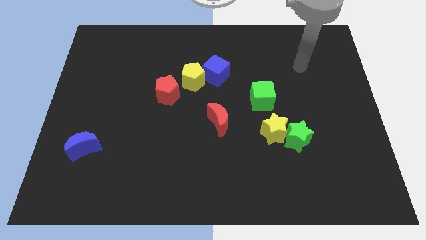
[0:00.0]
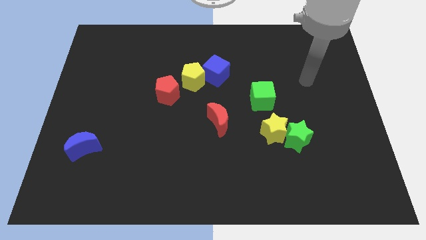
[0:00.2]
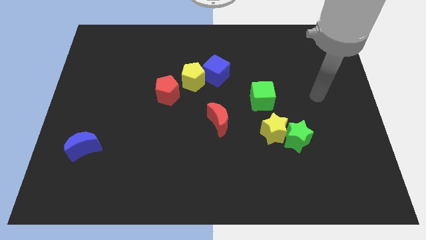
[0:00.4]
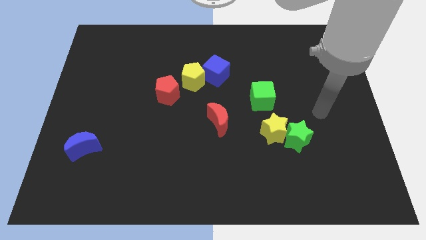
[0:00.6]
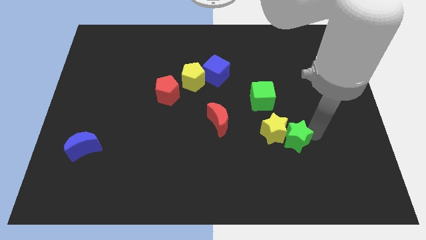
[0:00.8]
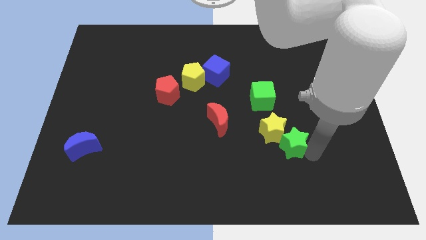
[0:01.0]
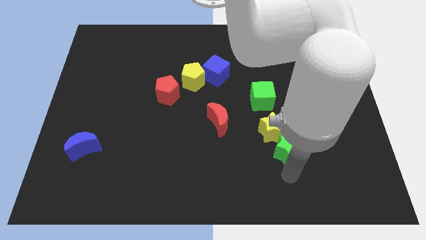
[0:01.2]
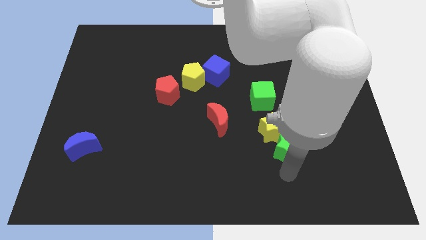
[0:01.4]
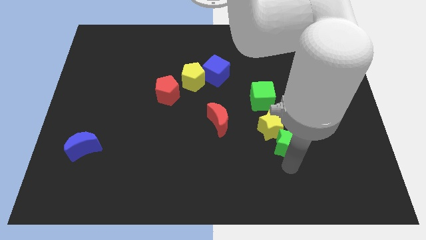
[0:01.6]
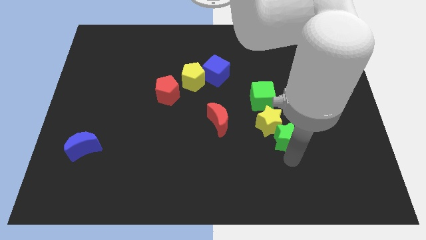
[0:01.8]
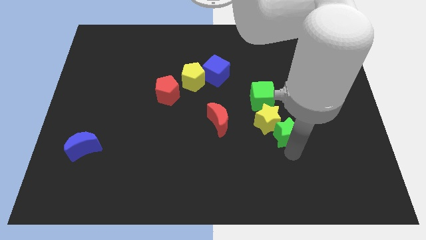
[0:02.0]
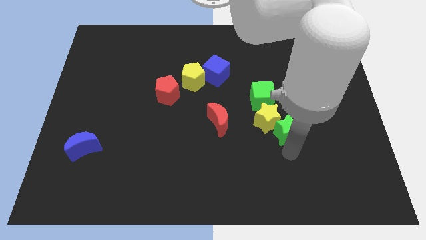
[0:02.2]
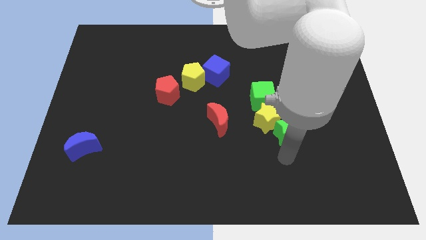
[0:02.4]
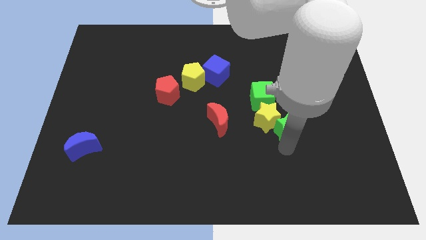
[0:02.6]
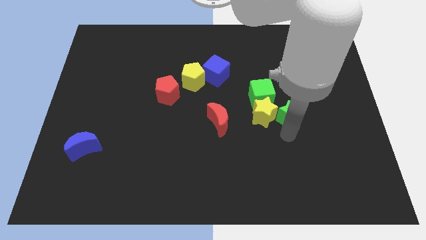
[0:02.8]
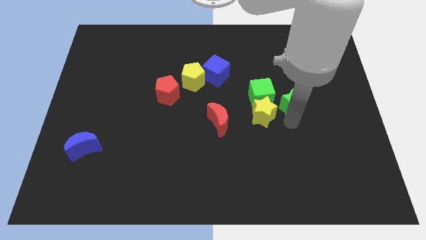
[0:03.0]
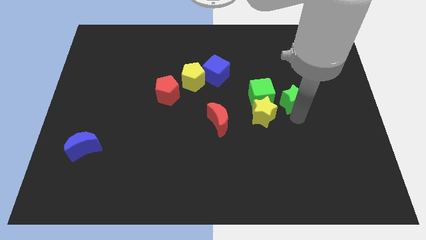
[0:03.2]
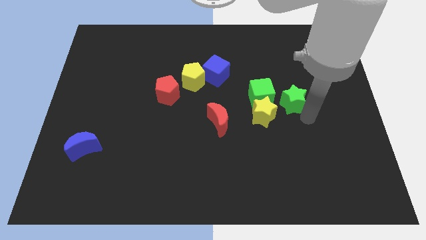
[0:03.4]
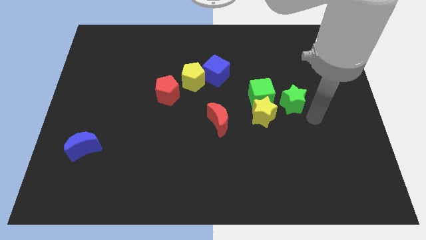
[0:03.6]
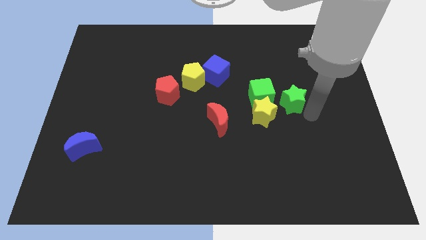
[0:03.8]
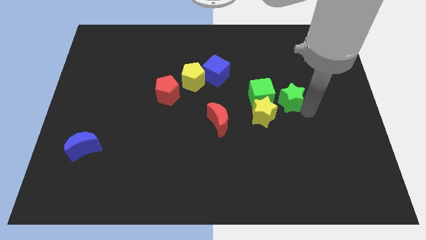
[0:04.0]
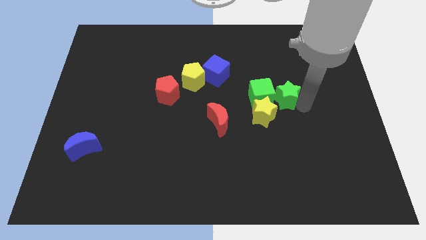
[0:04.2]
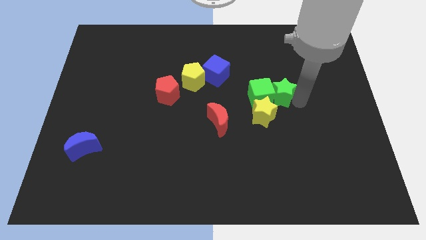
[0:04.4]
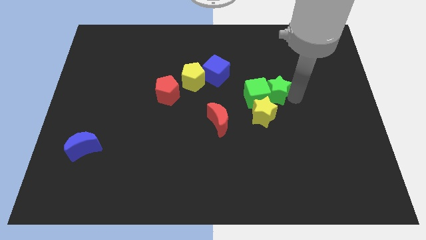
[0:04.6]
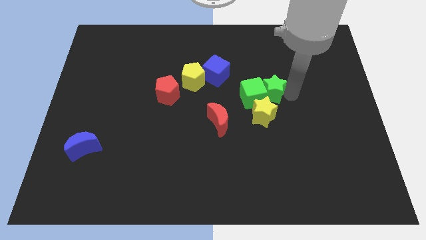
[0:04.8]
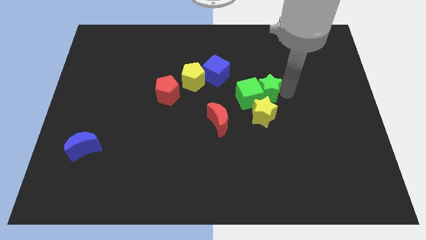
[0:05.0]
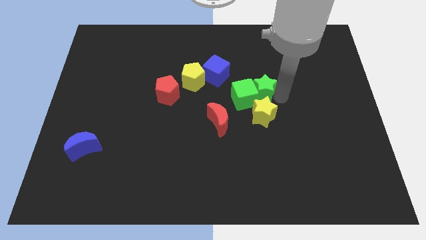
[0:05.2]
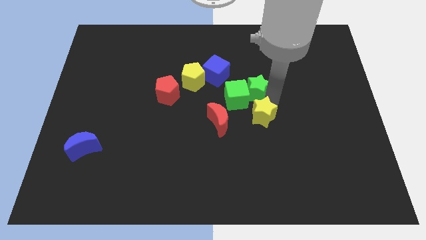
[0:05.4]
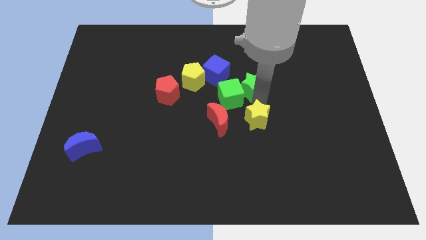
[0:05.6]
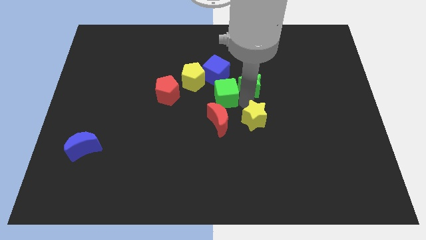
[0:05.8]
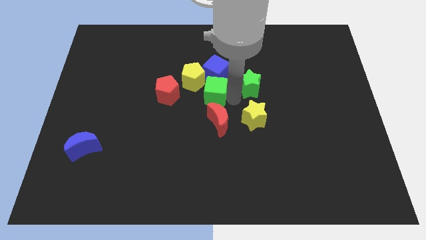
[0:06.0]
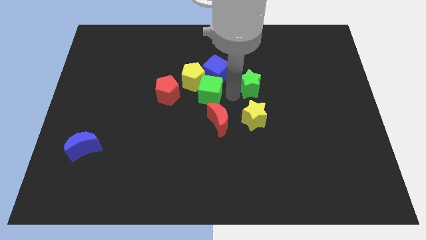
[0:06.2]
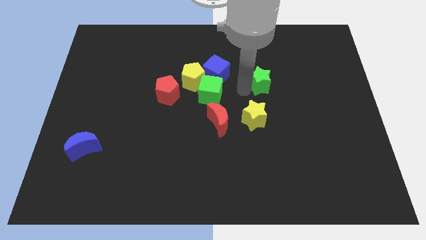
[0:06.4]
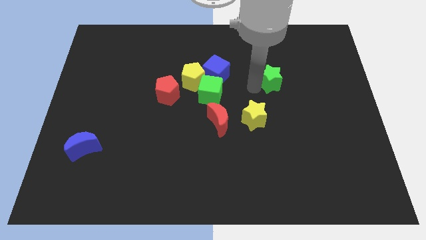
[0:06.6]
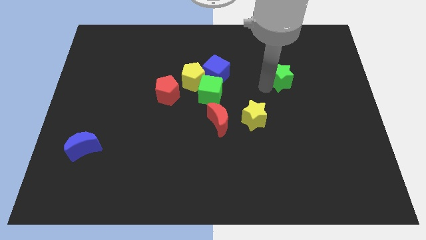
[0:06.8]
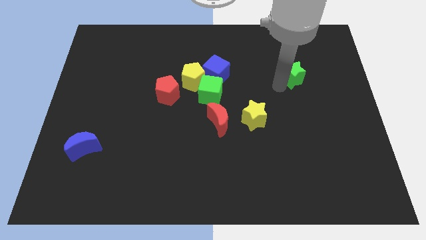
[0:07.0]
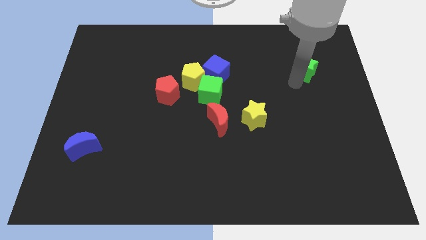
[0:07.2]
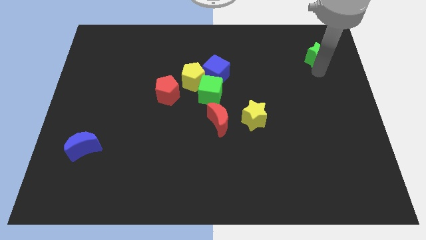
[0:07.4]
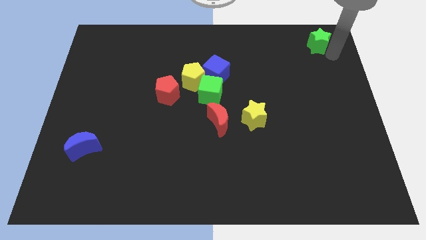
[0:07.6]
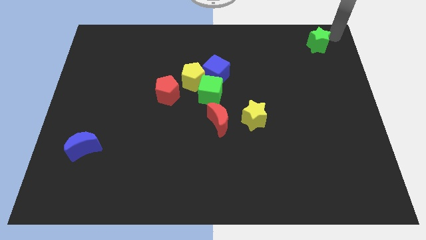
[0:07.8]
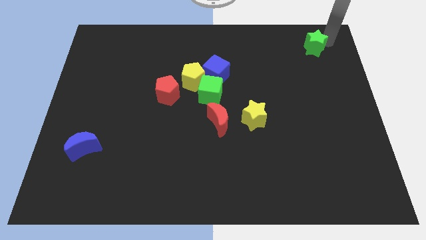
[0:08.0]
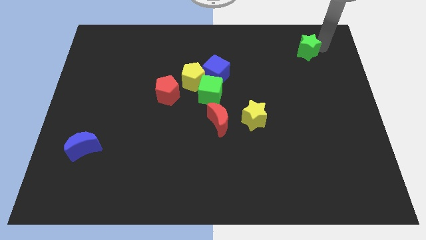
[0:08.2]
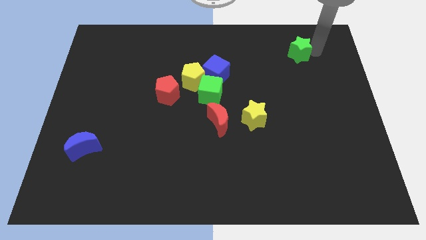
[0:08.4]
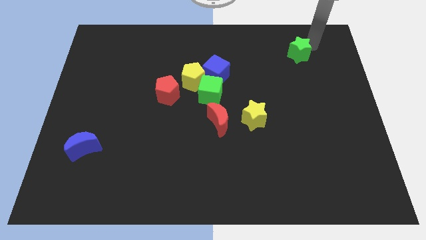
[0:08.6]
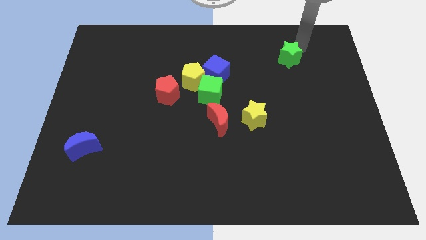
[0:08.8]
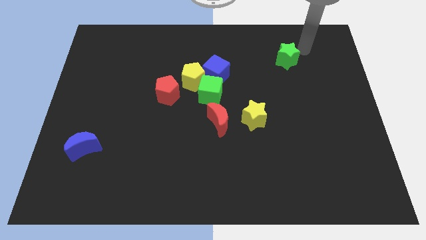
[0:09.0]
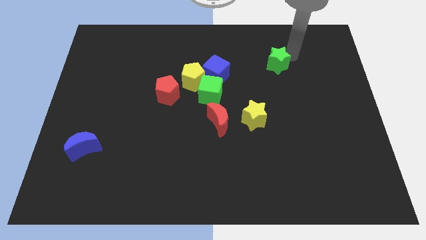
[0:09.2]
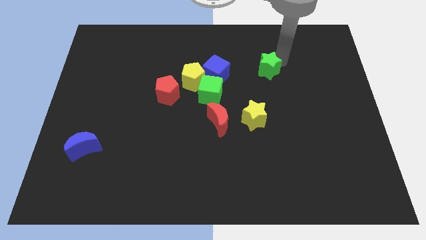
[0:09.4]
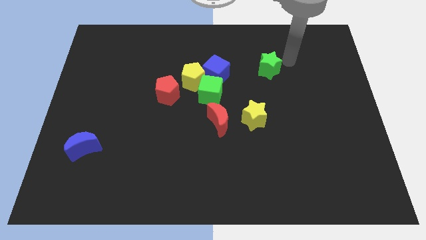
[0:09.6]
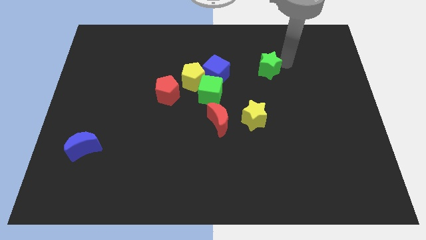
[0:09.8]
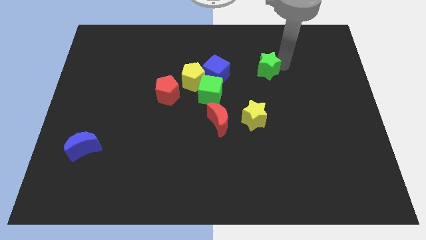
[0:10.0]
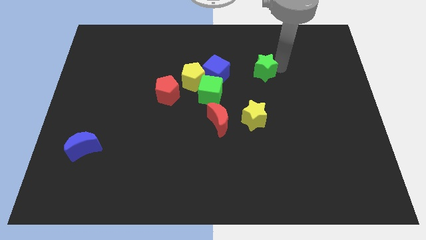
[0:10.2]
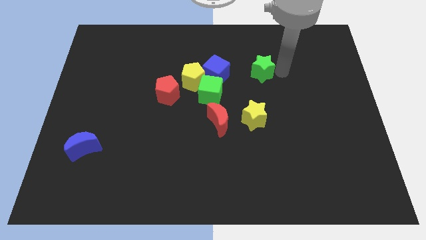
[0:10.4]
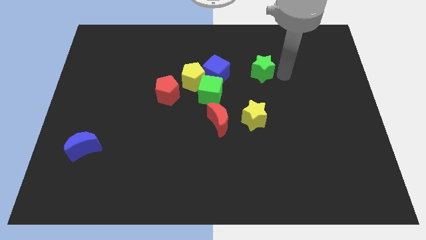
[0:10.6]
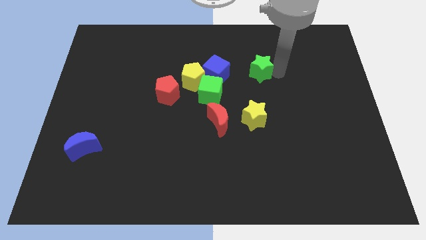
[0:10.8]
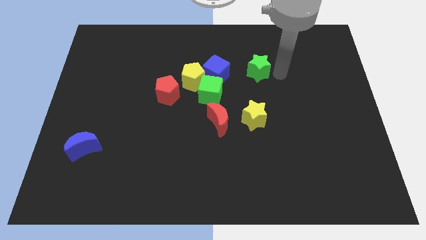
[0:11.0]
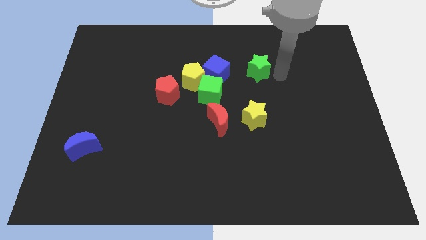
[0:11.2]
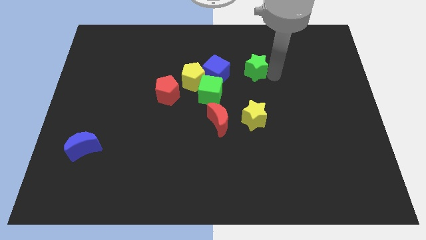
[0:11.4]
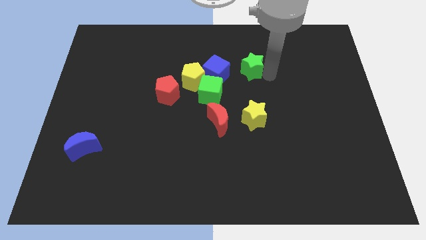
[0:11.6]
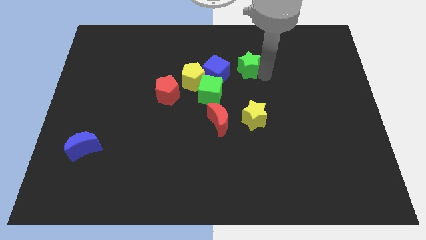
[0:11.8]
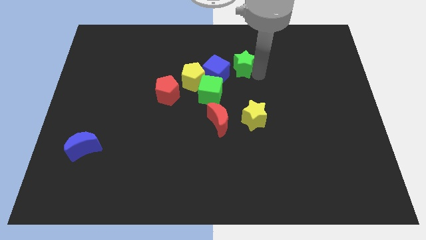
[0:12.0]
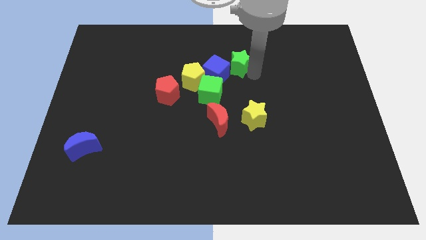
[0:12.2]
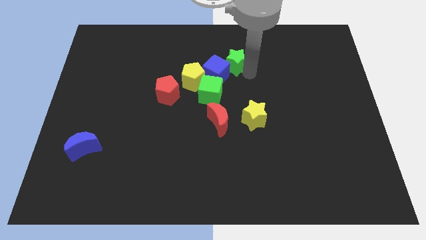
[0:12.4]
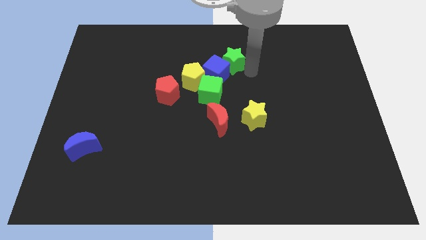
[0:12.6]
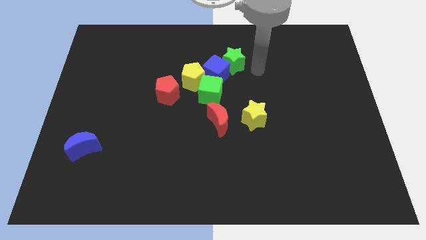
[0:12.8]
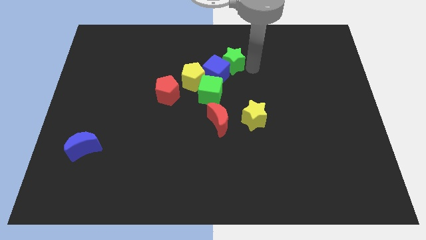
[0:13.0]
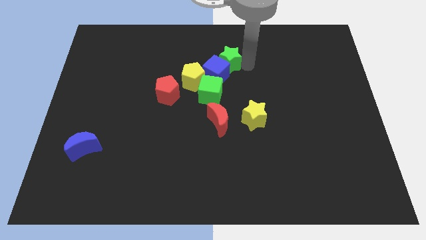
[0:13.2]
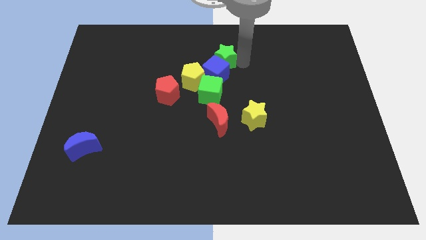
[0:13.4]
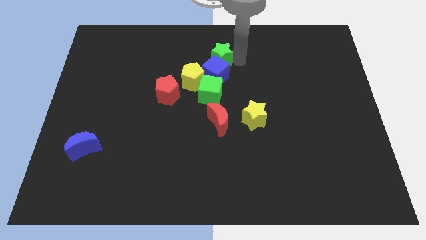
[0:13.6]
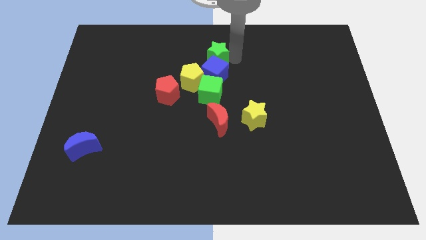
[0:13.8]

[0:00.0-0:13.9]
slide the green star diagonally up and to the left of the blue cube
